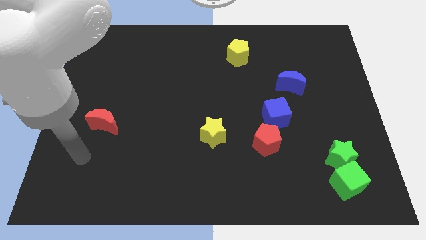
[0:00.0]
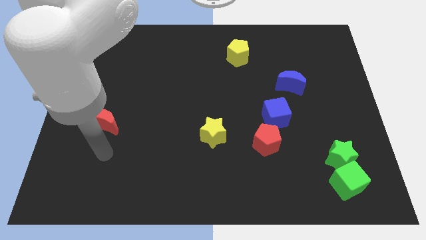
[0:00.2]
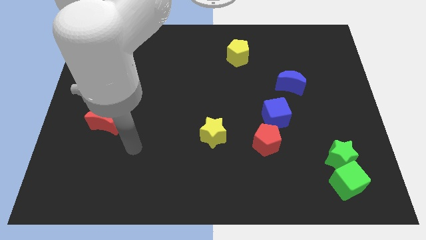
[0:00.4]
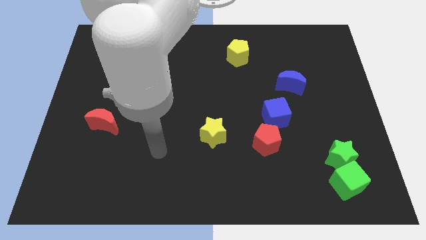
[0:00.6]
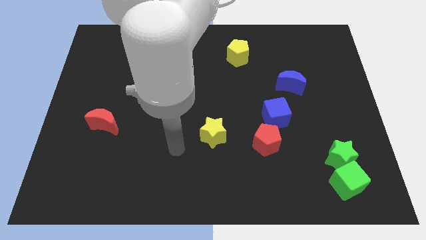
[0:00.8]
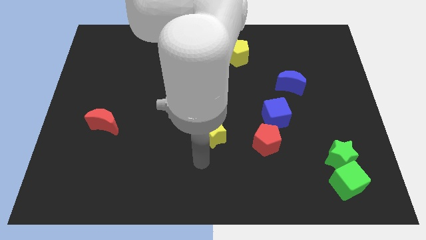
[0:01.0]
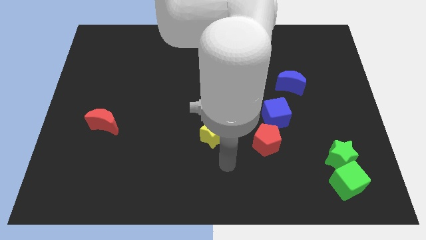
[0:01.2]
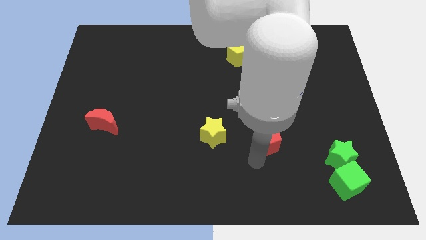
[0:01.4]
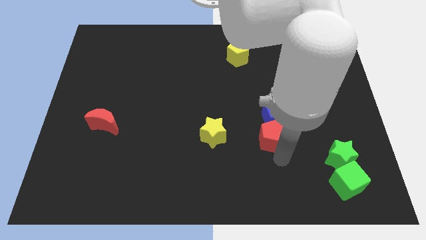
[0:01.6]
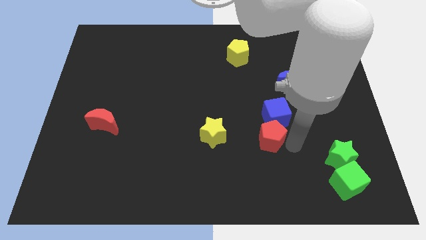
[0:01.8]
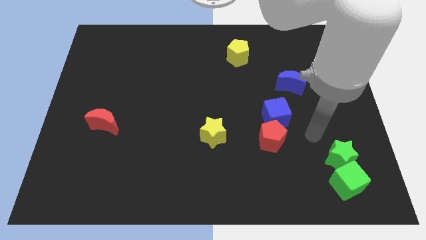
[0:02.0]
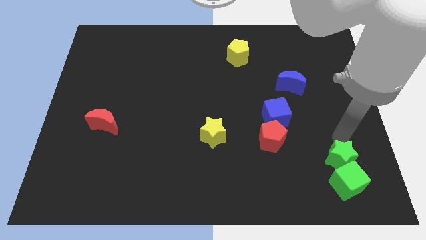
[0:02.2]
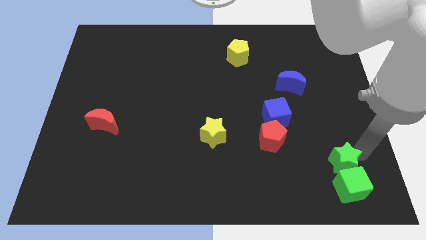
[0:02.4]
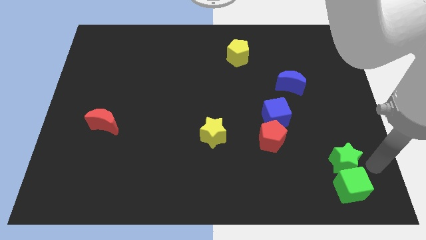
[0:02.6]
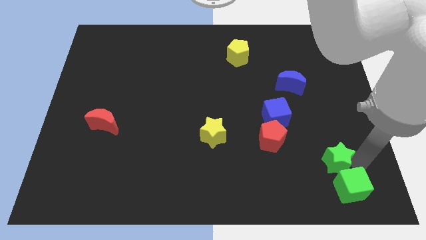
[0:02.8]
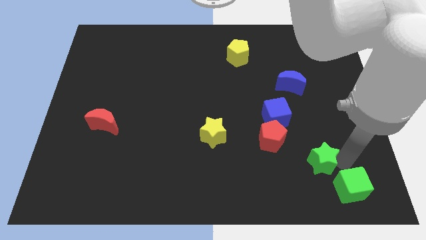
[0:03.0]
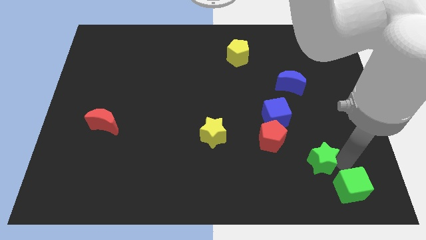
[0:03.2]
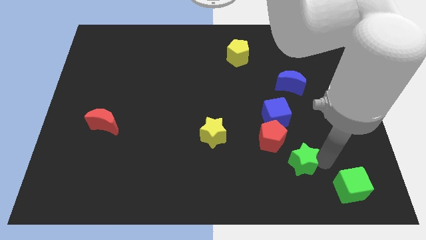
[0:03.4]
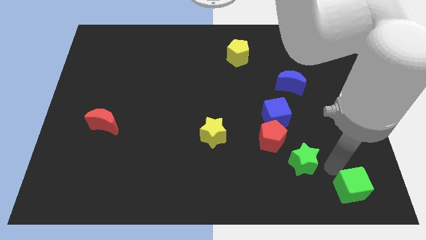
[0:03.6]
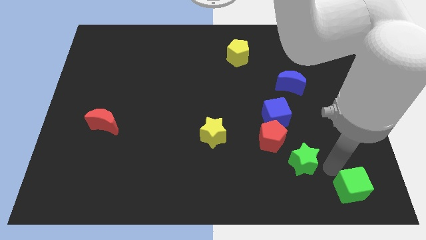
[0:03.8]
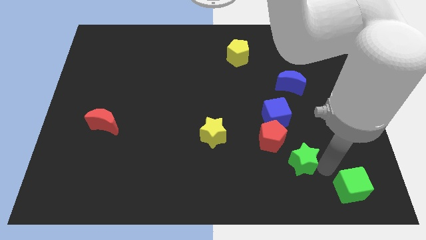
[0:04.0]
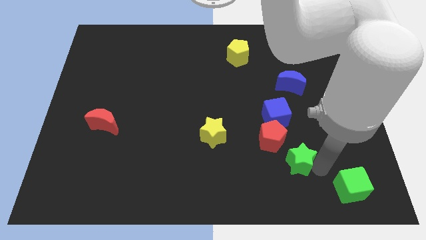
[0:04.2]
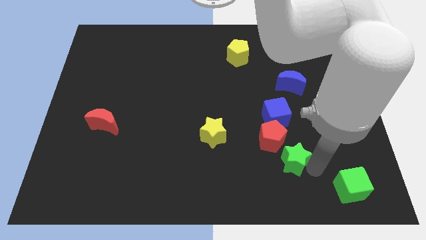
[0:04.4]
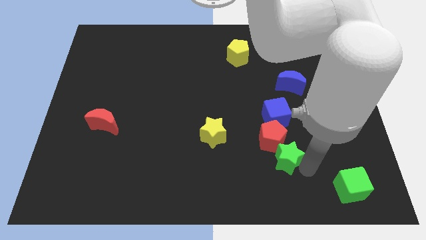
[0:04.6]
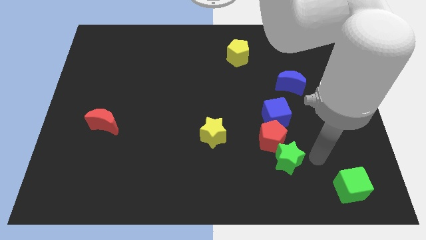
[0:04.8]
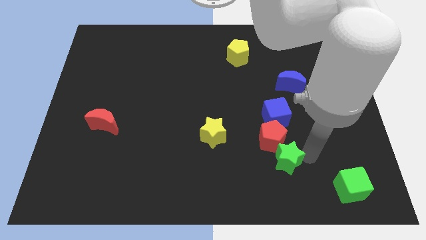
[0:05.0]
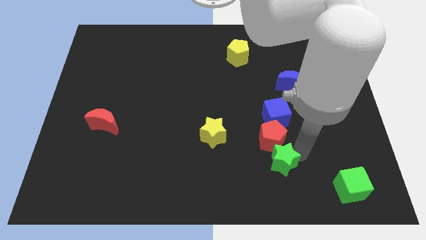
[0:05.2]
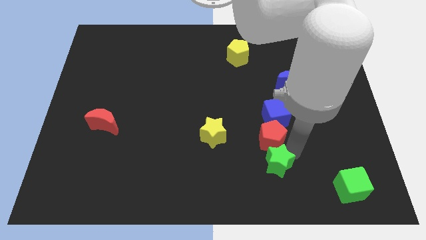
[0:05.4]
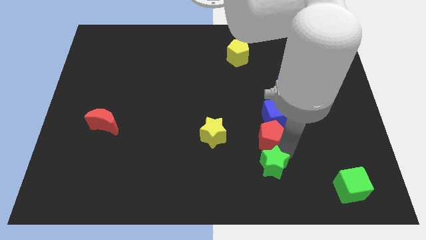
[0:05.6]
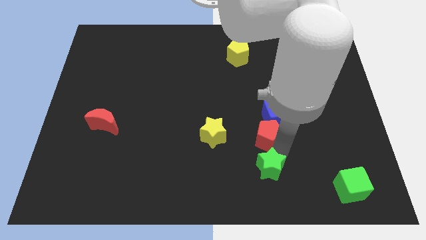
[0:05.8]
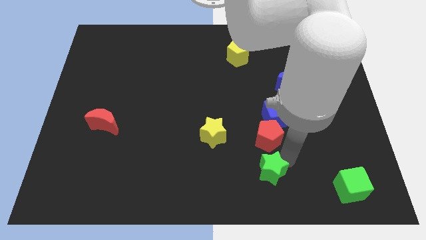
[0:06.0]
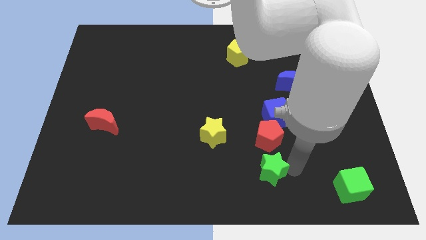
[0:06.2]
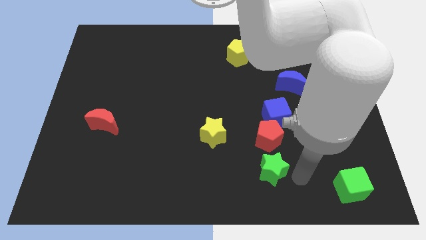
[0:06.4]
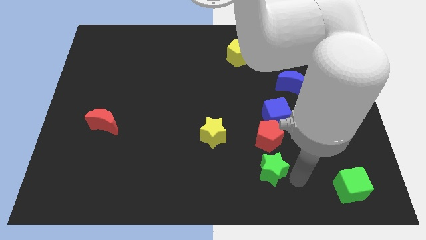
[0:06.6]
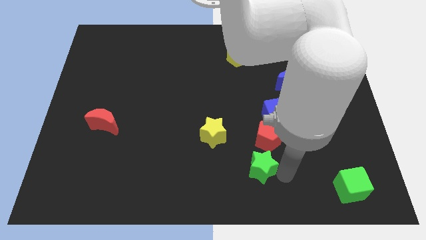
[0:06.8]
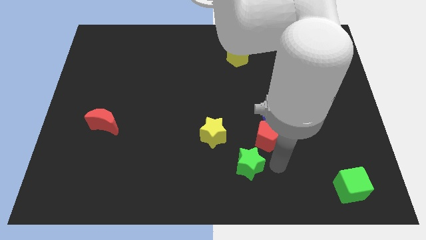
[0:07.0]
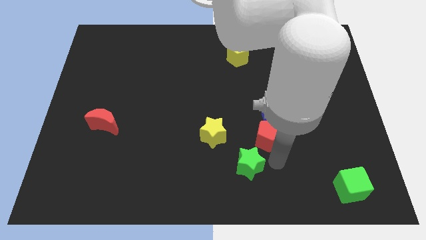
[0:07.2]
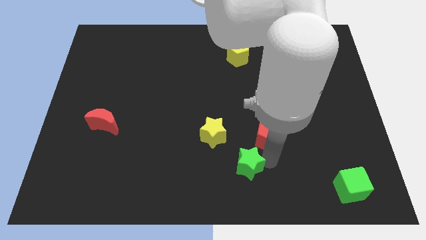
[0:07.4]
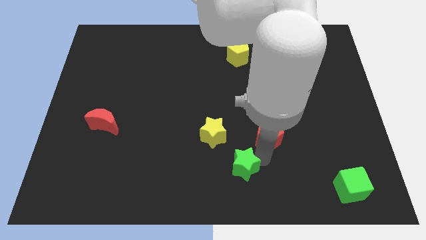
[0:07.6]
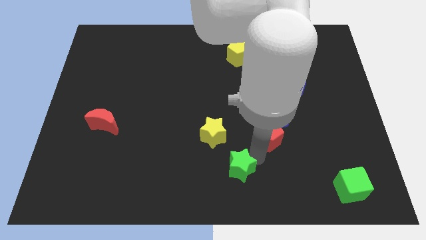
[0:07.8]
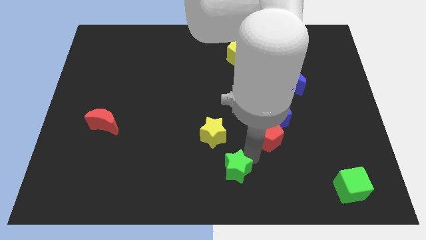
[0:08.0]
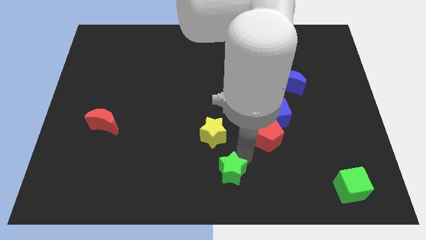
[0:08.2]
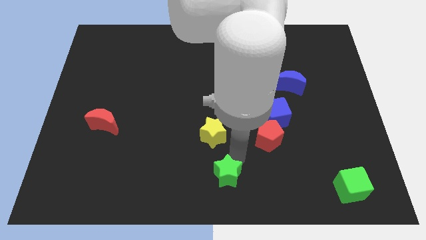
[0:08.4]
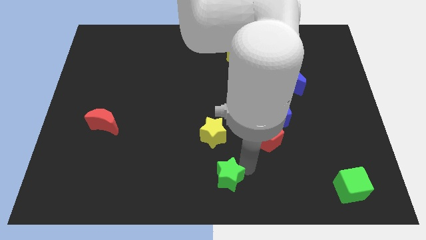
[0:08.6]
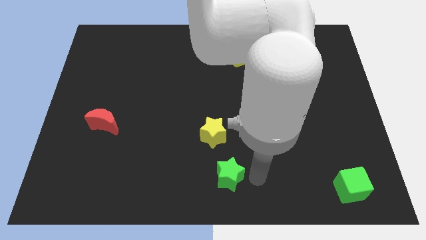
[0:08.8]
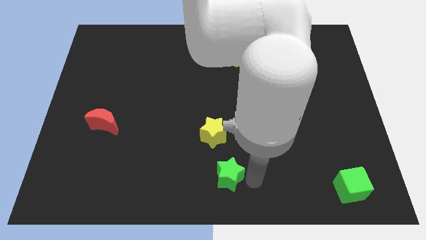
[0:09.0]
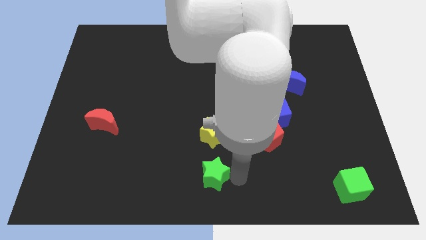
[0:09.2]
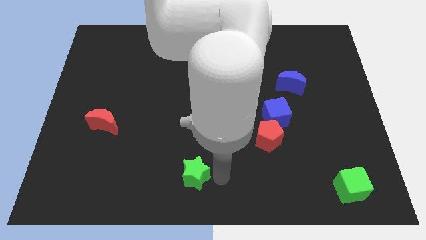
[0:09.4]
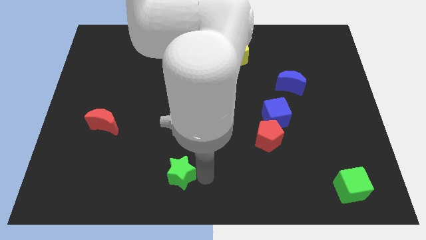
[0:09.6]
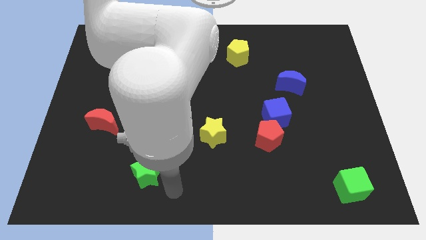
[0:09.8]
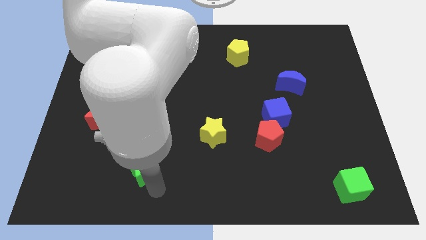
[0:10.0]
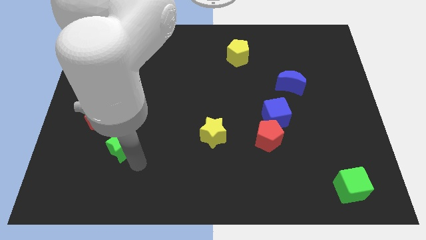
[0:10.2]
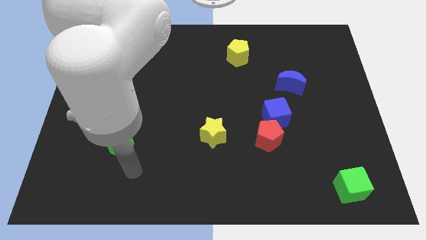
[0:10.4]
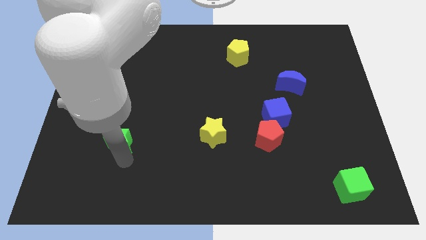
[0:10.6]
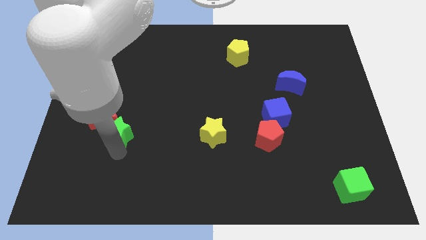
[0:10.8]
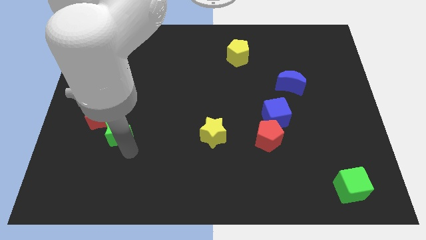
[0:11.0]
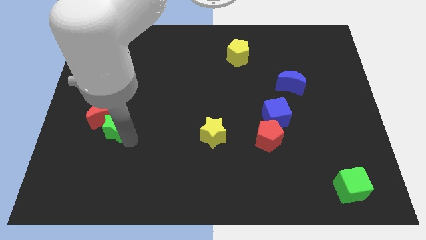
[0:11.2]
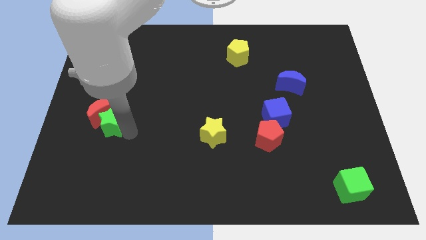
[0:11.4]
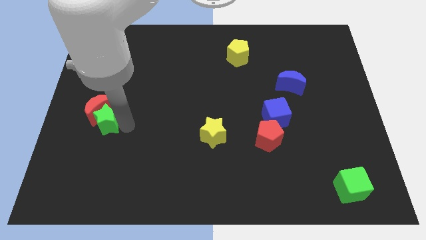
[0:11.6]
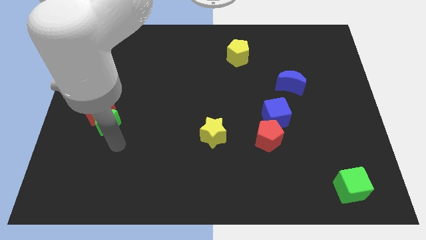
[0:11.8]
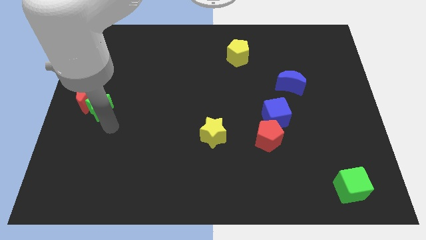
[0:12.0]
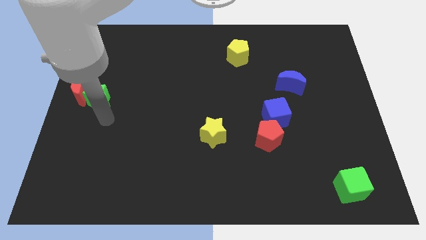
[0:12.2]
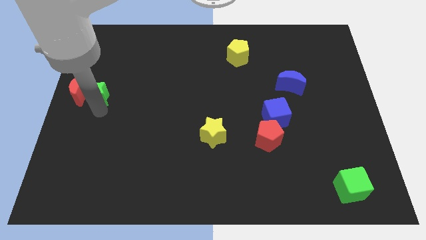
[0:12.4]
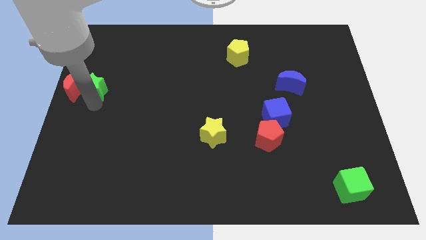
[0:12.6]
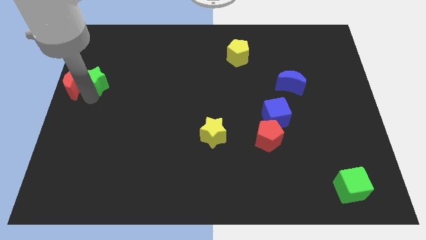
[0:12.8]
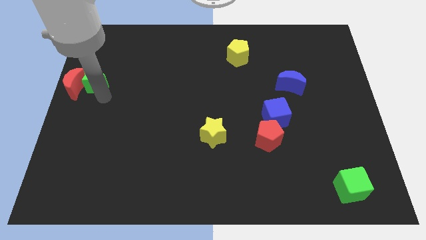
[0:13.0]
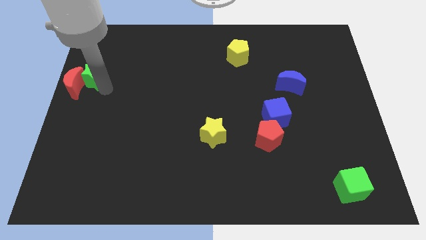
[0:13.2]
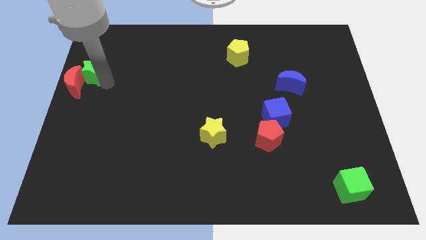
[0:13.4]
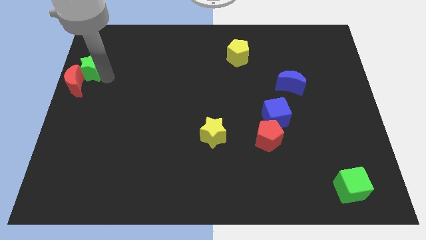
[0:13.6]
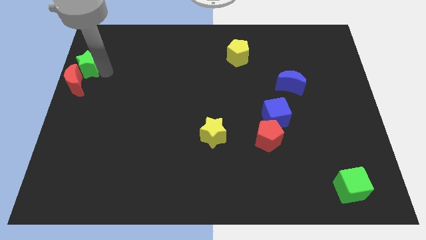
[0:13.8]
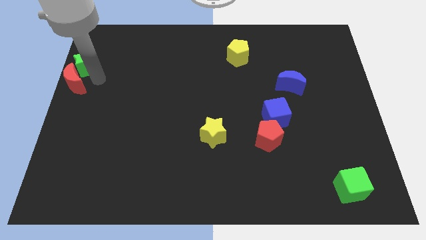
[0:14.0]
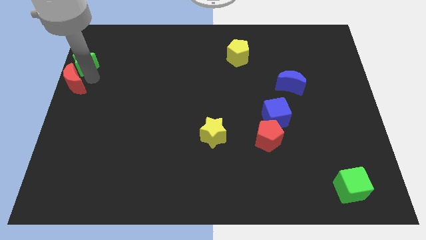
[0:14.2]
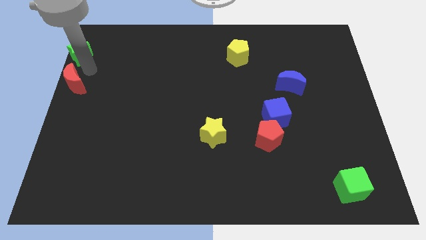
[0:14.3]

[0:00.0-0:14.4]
move the green star to the top left of the board
